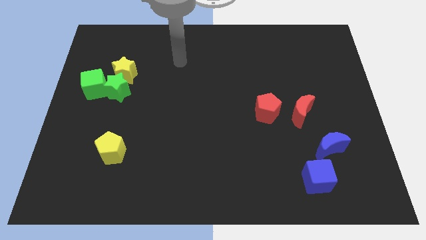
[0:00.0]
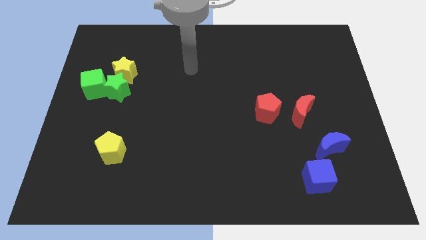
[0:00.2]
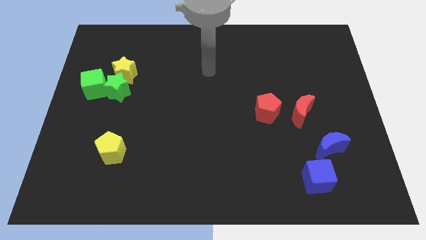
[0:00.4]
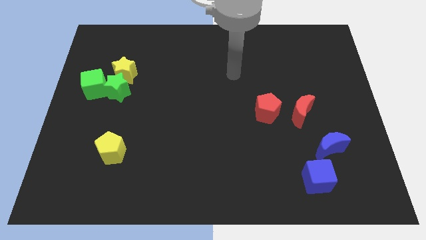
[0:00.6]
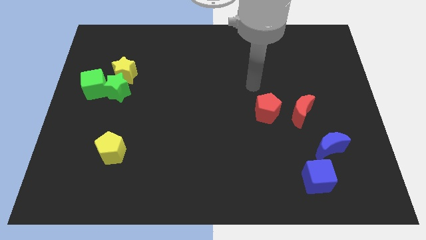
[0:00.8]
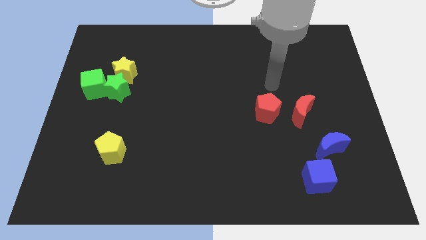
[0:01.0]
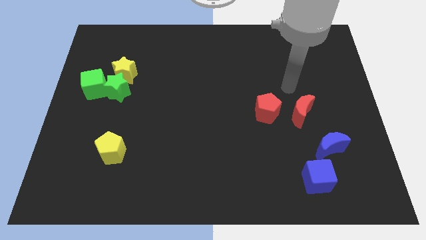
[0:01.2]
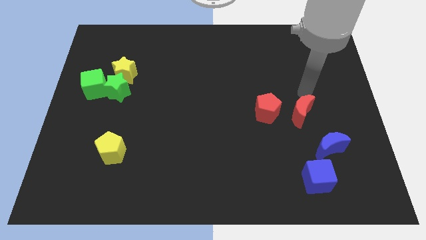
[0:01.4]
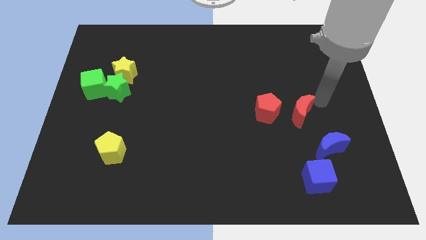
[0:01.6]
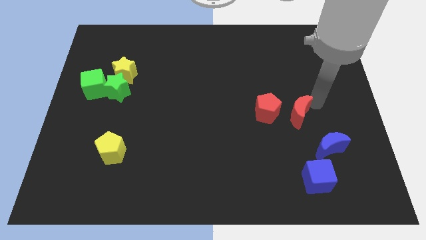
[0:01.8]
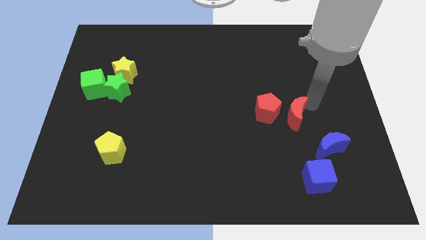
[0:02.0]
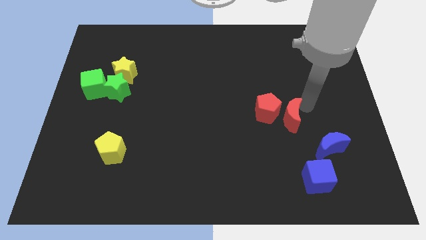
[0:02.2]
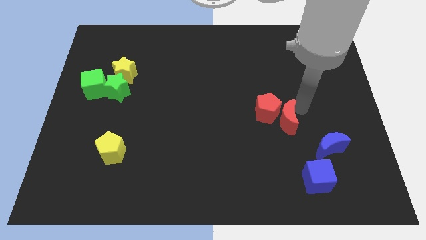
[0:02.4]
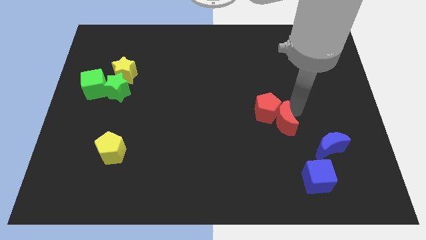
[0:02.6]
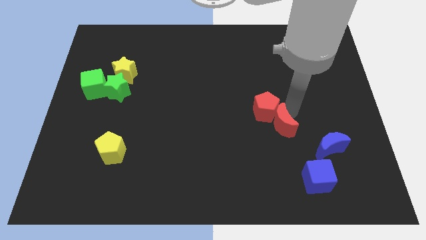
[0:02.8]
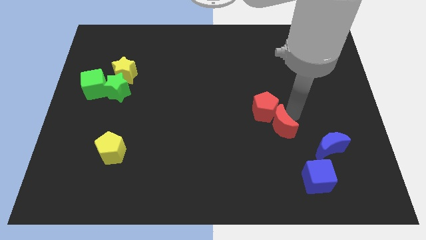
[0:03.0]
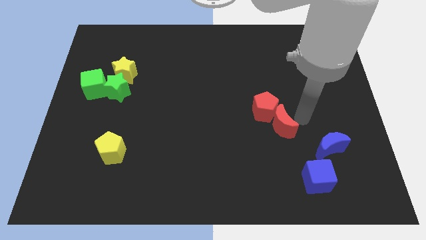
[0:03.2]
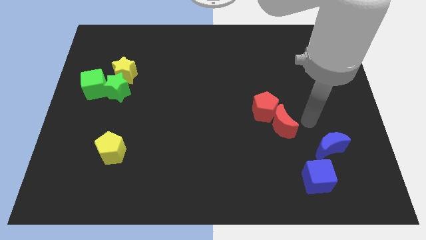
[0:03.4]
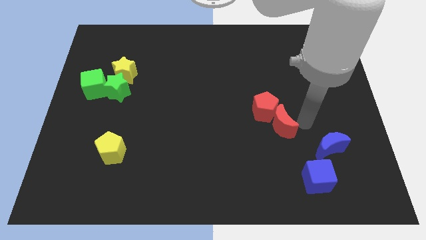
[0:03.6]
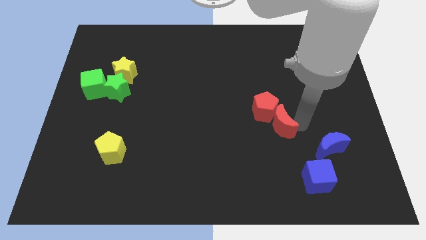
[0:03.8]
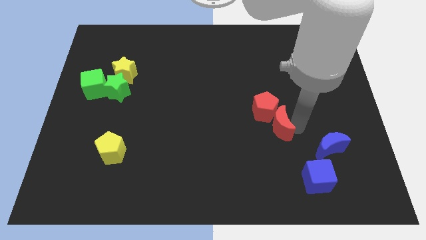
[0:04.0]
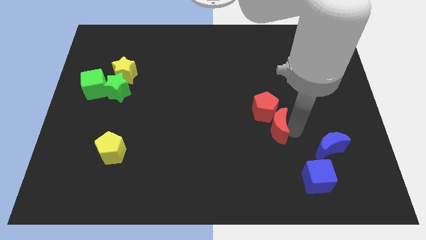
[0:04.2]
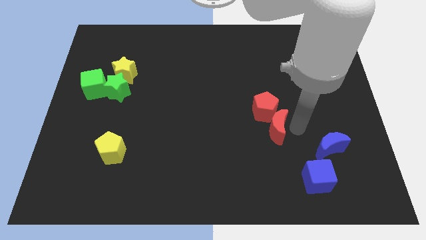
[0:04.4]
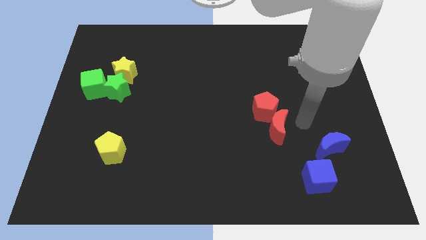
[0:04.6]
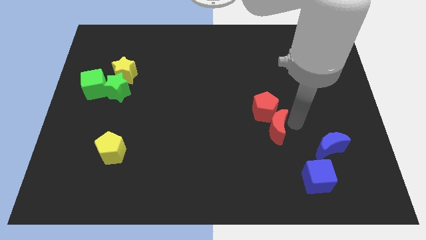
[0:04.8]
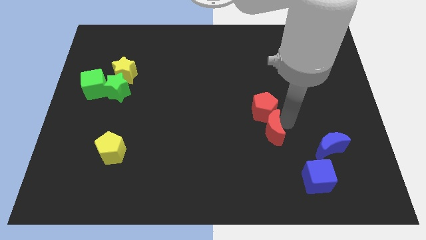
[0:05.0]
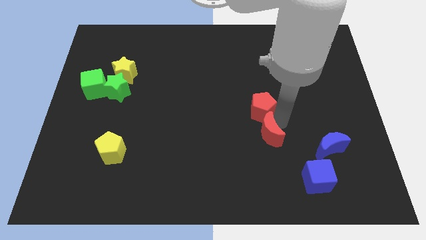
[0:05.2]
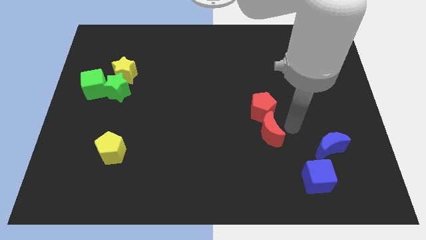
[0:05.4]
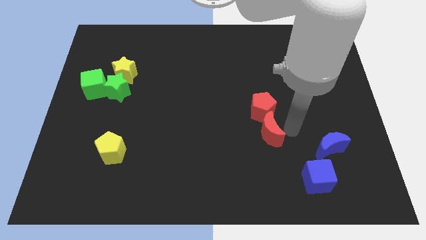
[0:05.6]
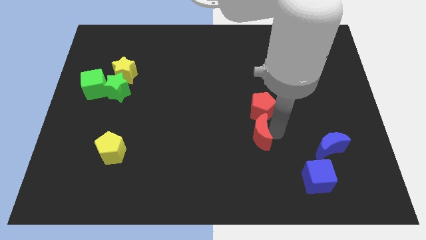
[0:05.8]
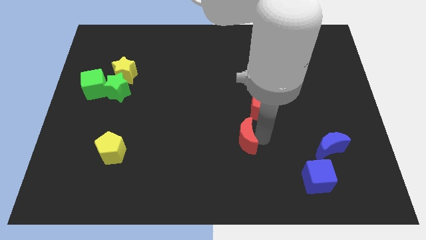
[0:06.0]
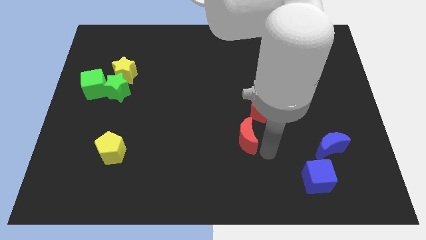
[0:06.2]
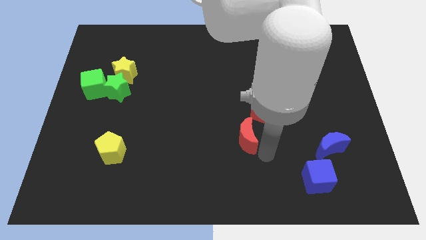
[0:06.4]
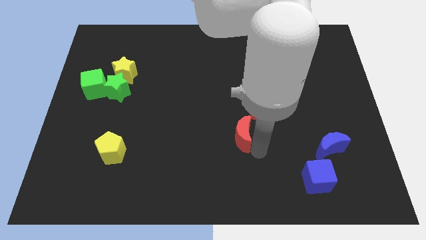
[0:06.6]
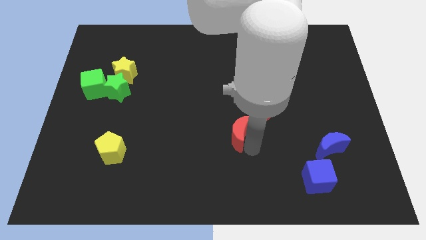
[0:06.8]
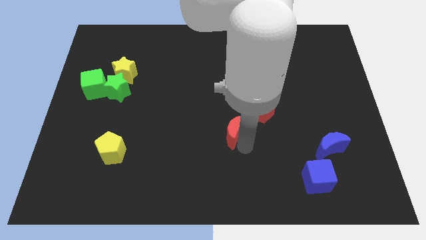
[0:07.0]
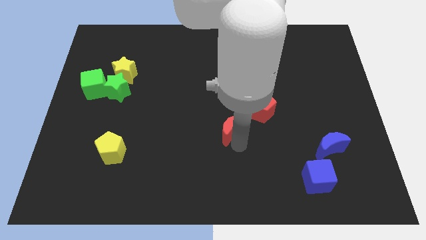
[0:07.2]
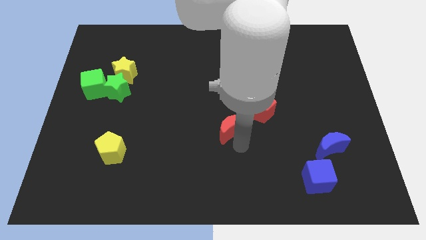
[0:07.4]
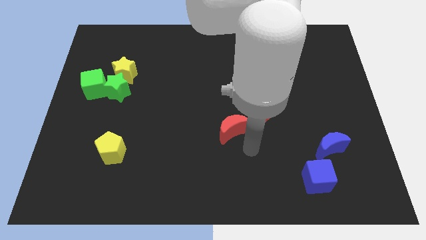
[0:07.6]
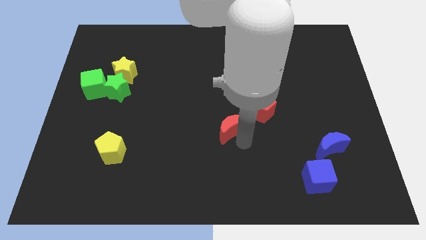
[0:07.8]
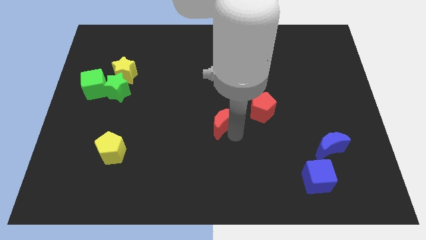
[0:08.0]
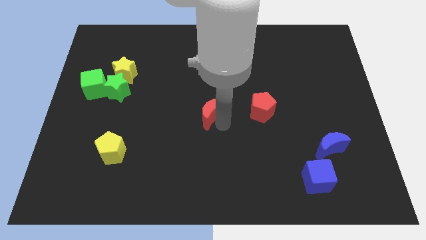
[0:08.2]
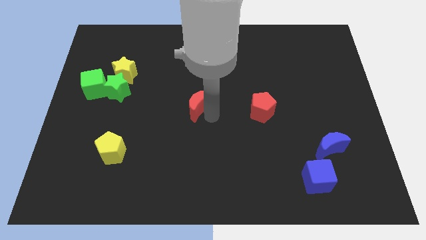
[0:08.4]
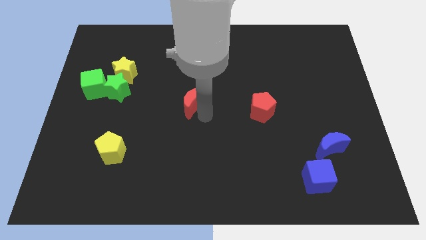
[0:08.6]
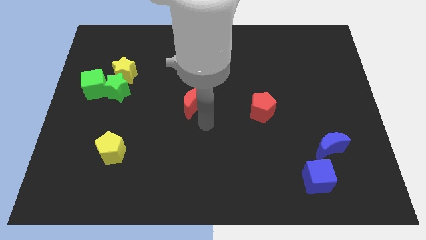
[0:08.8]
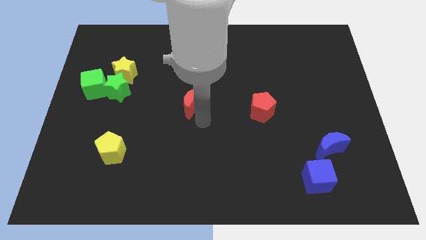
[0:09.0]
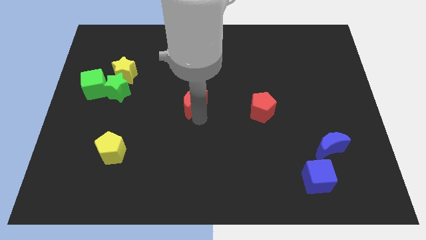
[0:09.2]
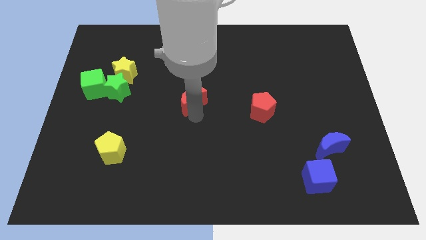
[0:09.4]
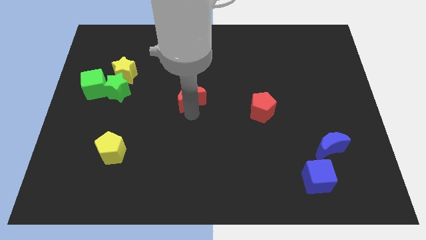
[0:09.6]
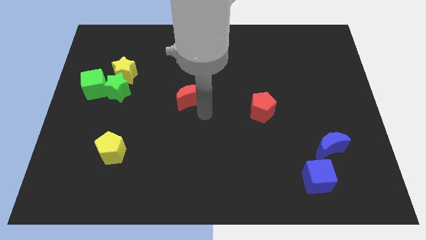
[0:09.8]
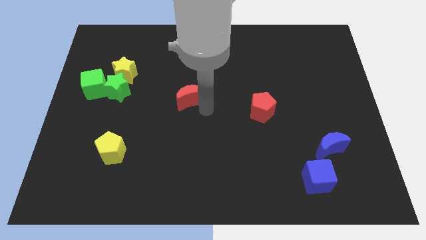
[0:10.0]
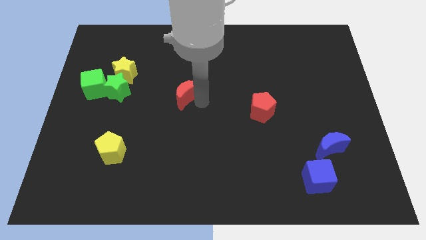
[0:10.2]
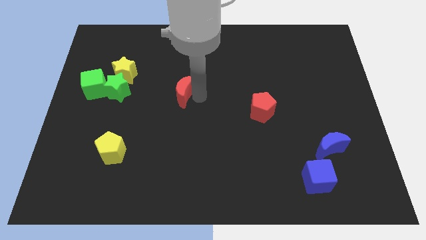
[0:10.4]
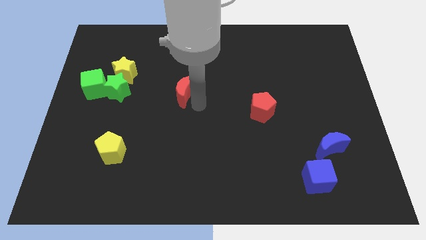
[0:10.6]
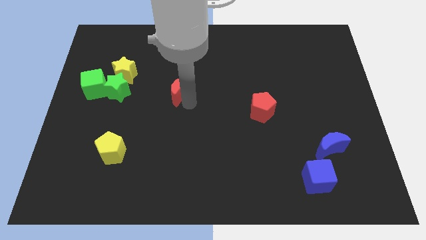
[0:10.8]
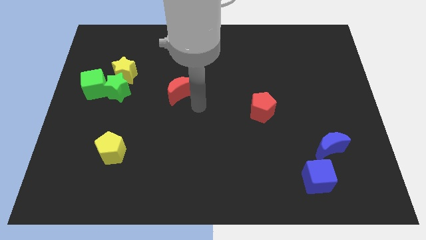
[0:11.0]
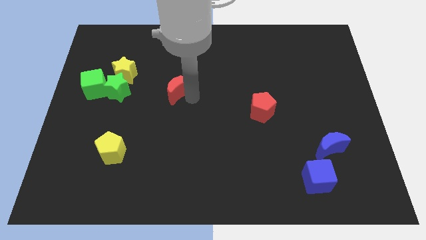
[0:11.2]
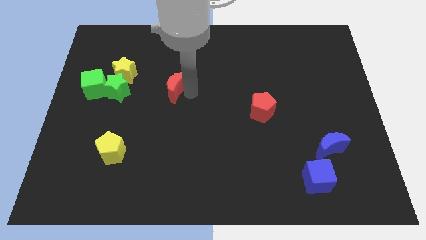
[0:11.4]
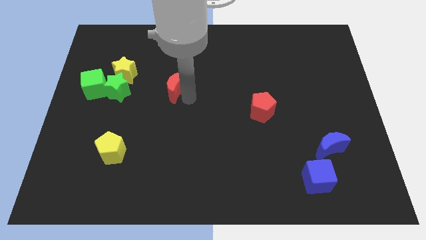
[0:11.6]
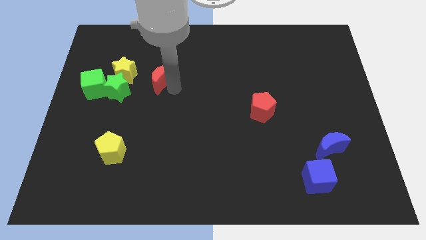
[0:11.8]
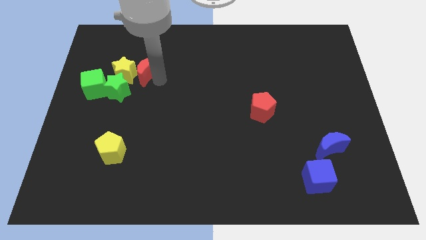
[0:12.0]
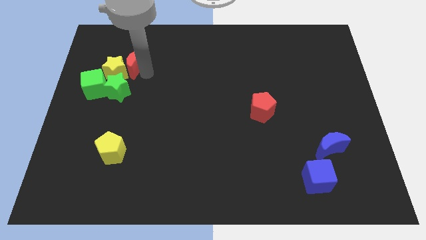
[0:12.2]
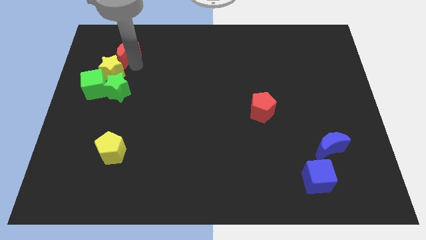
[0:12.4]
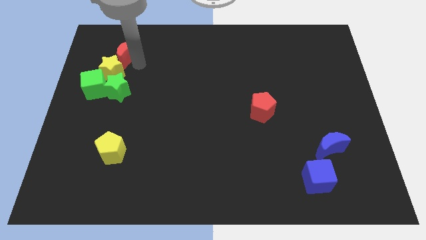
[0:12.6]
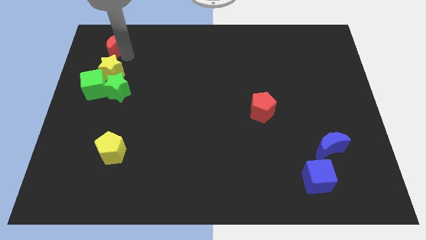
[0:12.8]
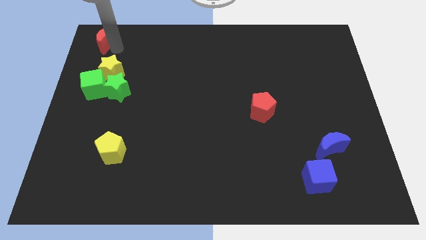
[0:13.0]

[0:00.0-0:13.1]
slide the red moon to the top left corner
